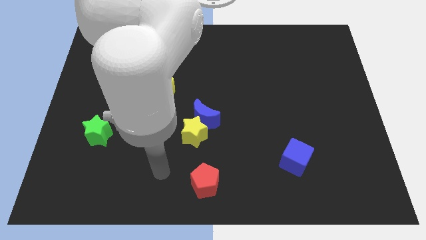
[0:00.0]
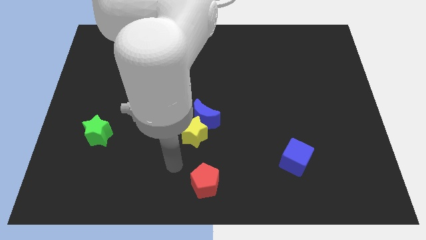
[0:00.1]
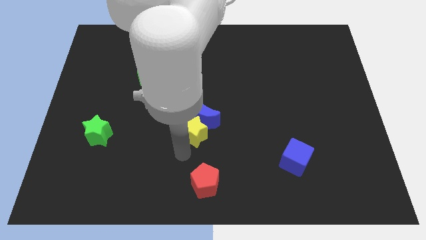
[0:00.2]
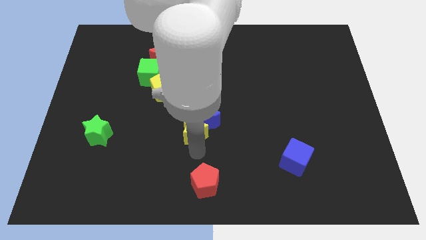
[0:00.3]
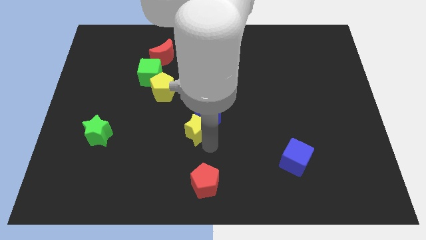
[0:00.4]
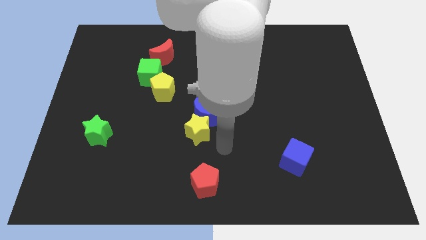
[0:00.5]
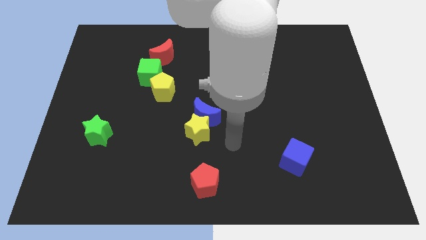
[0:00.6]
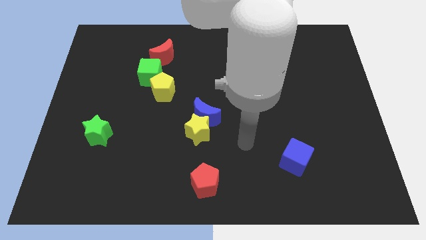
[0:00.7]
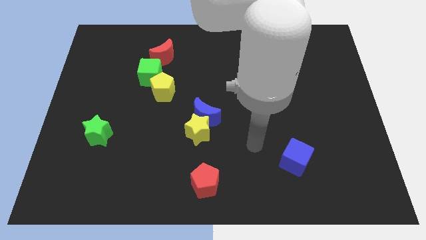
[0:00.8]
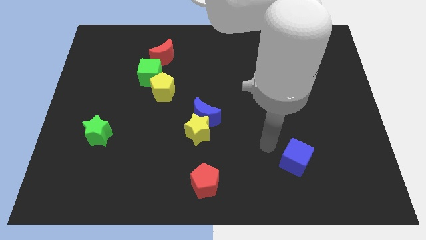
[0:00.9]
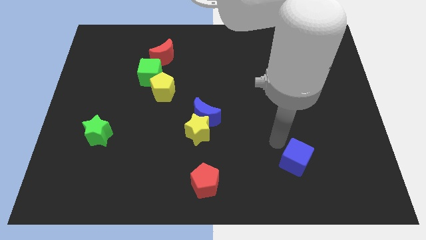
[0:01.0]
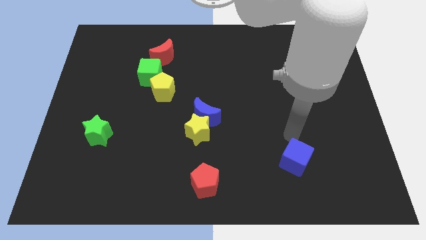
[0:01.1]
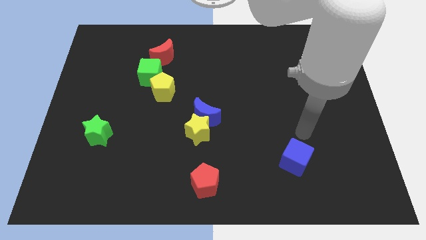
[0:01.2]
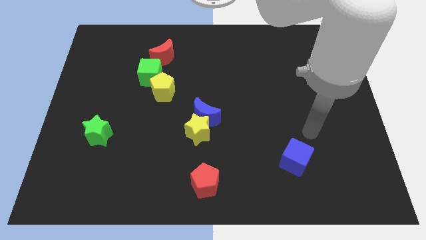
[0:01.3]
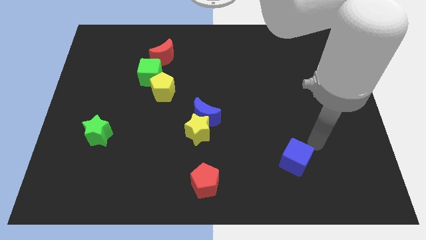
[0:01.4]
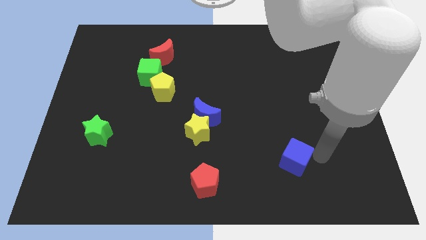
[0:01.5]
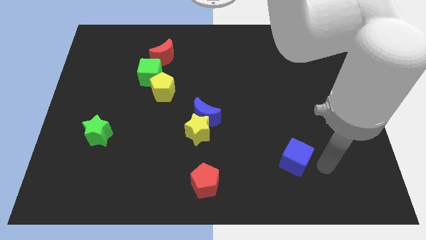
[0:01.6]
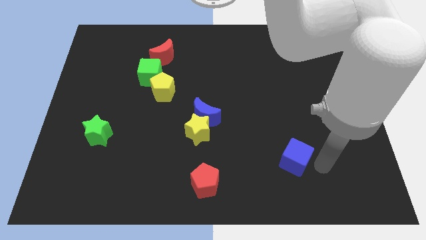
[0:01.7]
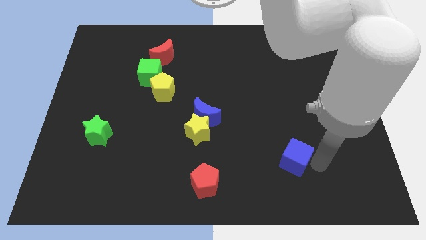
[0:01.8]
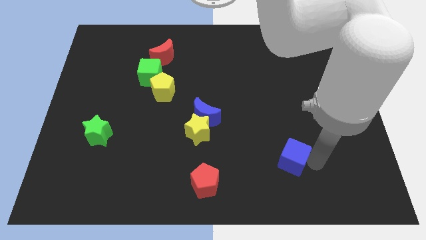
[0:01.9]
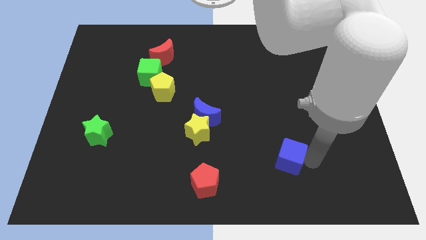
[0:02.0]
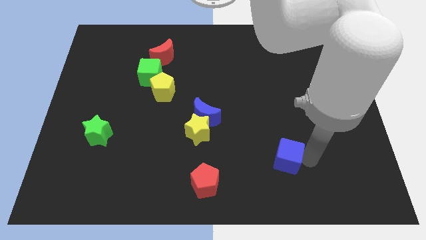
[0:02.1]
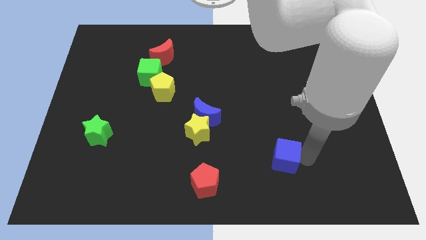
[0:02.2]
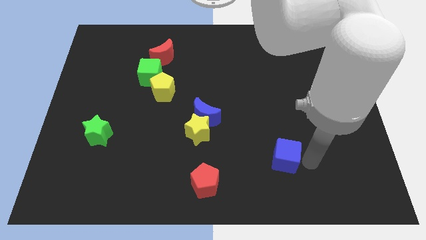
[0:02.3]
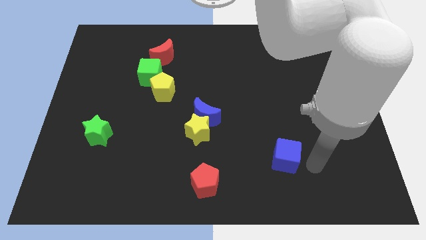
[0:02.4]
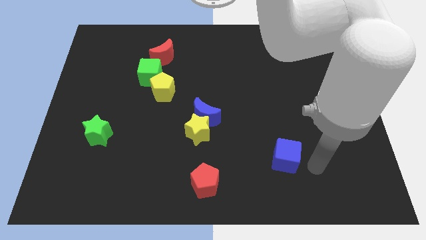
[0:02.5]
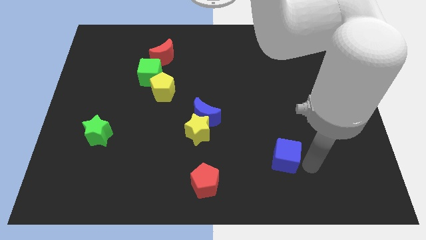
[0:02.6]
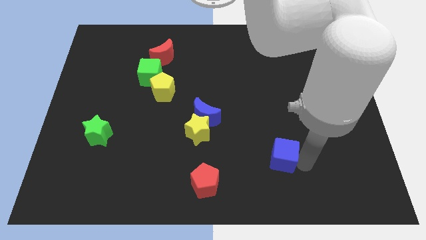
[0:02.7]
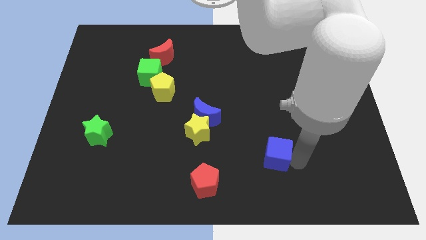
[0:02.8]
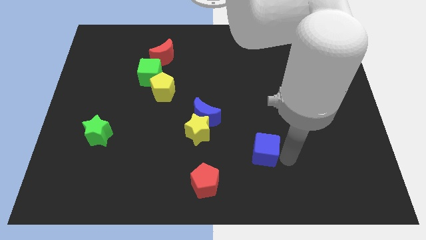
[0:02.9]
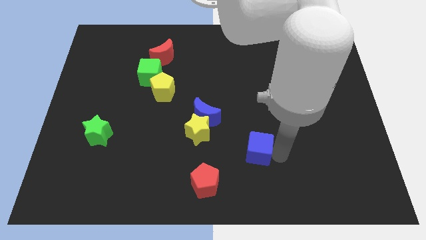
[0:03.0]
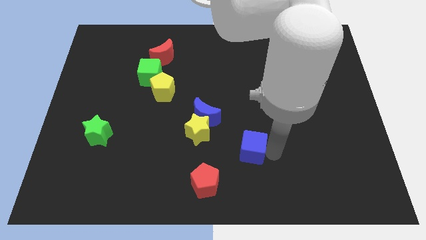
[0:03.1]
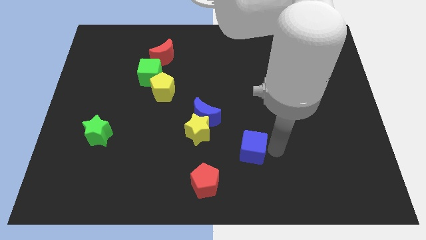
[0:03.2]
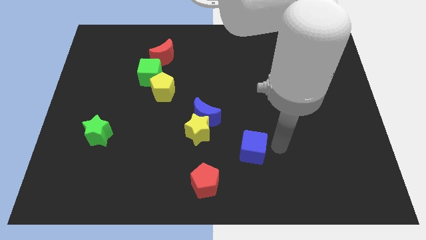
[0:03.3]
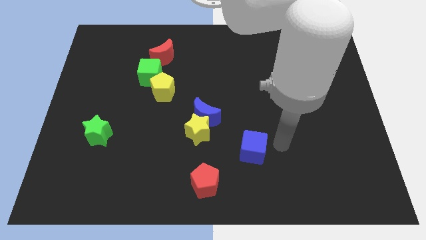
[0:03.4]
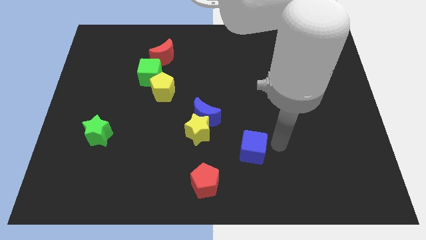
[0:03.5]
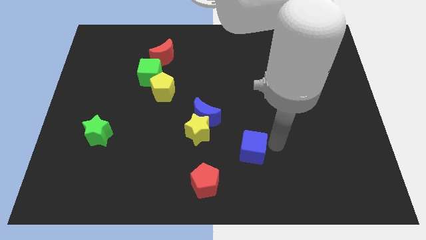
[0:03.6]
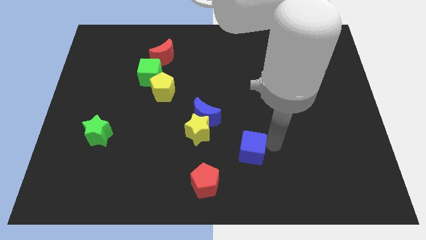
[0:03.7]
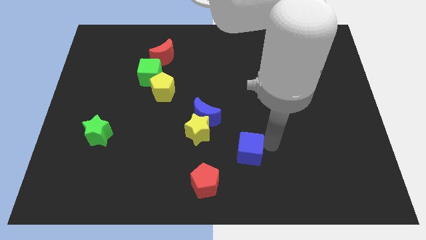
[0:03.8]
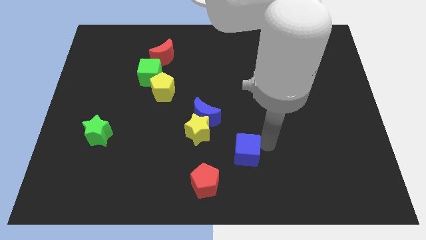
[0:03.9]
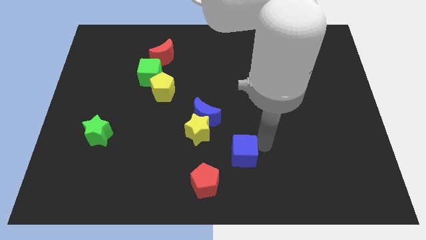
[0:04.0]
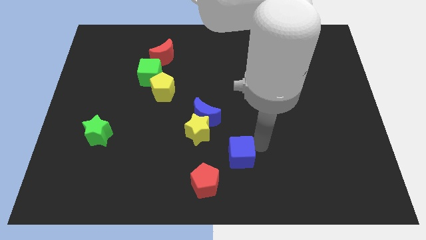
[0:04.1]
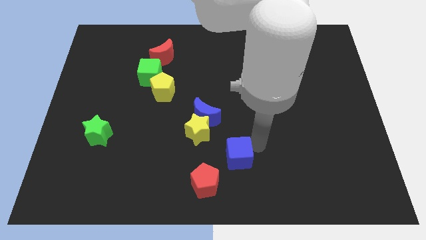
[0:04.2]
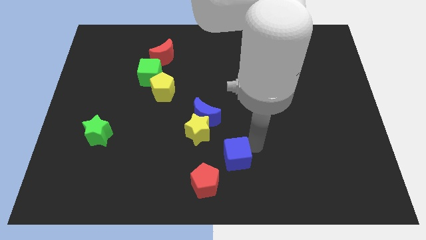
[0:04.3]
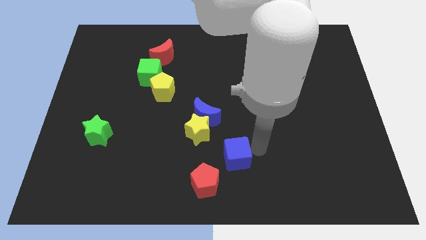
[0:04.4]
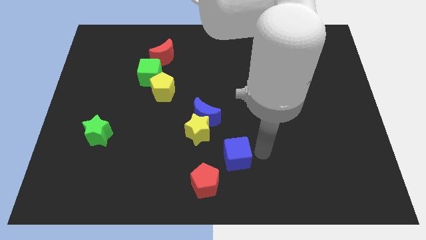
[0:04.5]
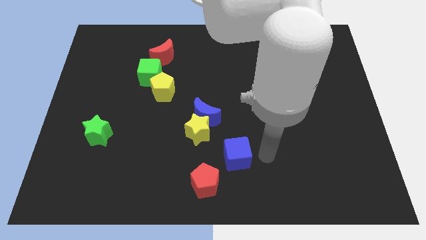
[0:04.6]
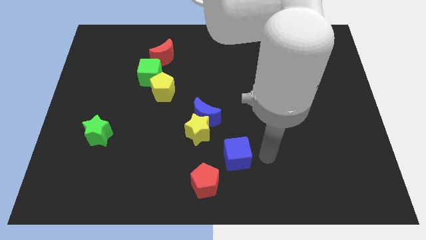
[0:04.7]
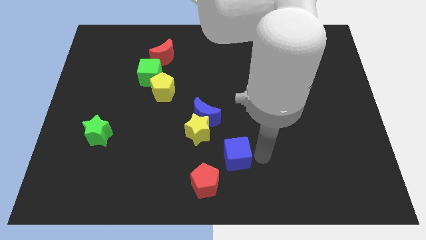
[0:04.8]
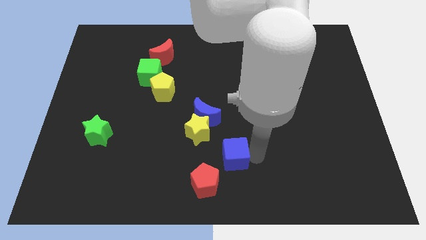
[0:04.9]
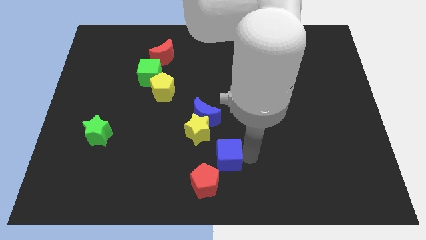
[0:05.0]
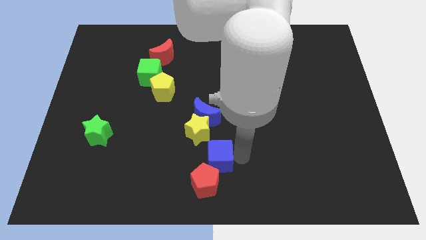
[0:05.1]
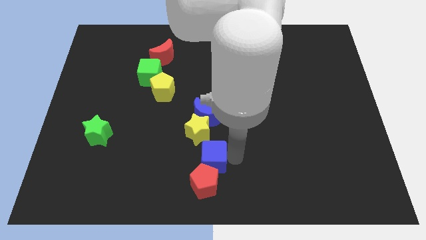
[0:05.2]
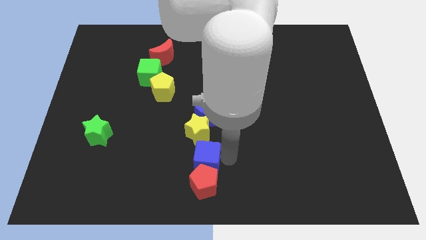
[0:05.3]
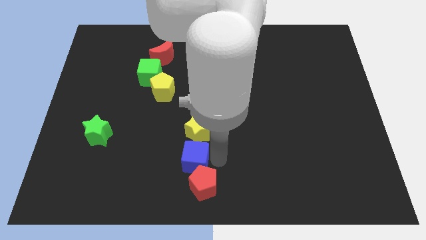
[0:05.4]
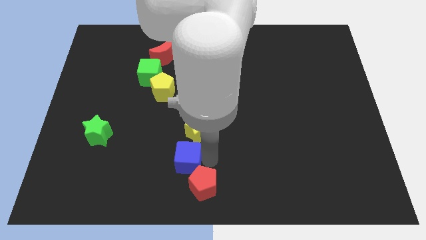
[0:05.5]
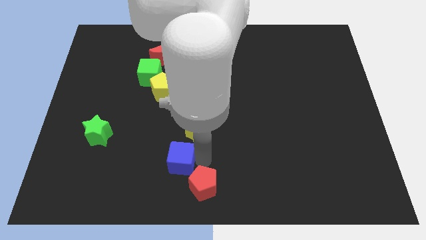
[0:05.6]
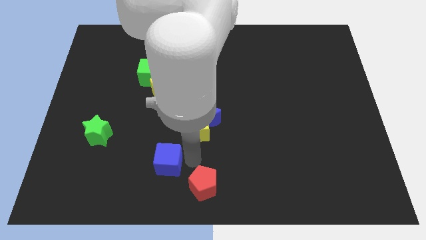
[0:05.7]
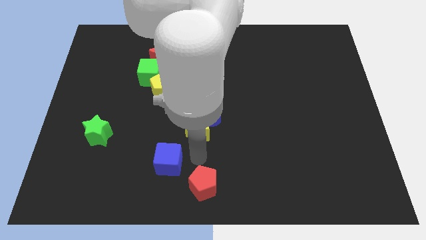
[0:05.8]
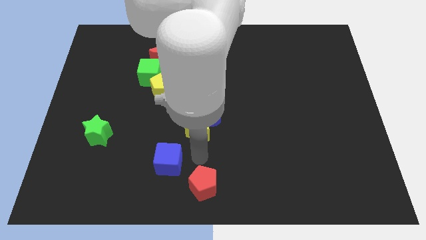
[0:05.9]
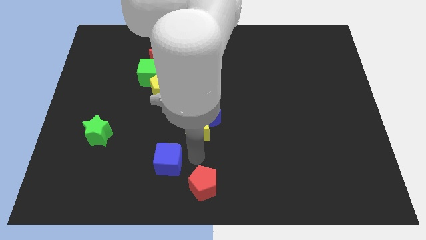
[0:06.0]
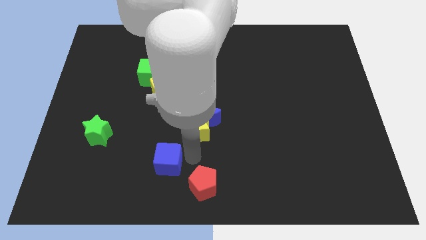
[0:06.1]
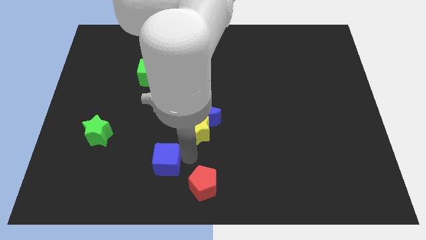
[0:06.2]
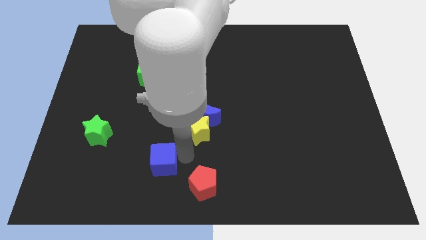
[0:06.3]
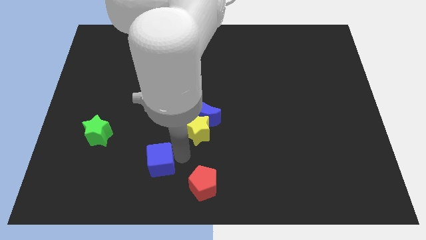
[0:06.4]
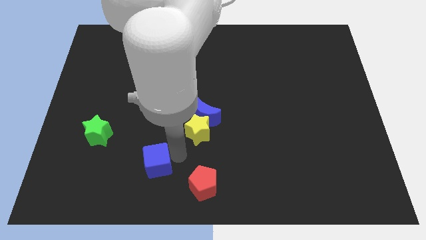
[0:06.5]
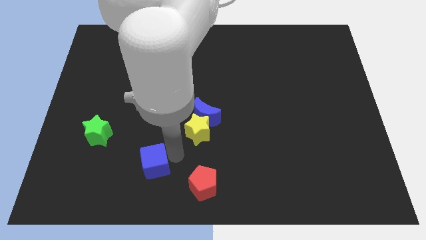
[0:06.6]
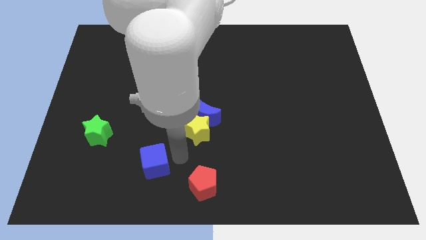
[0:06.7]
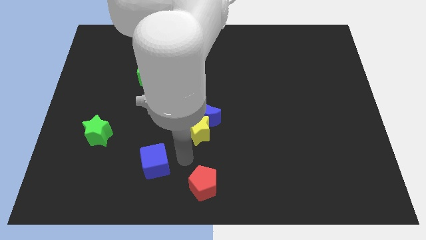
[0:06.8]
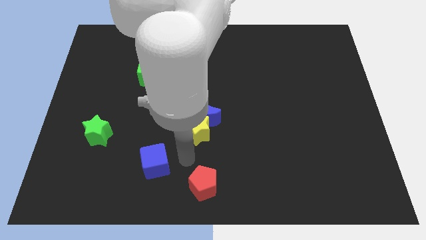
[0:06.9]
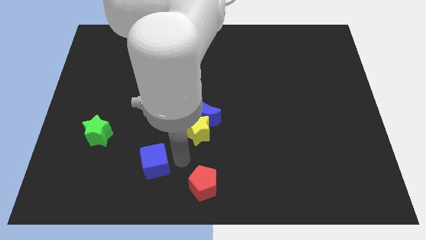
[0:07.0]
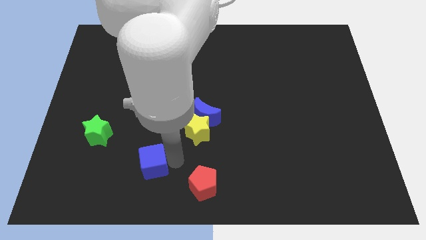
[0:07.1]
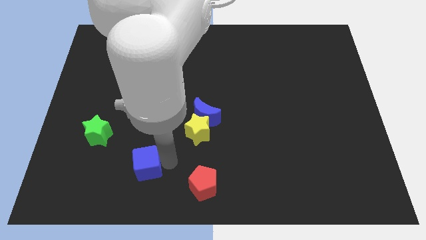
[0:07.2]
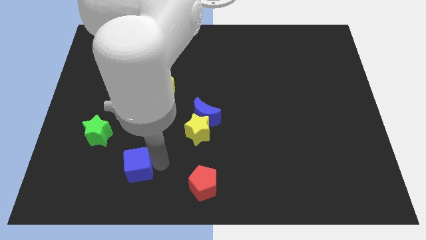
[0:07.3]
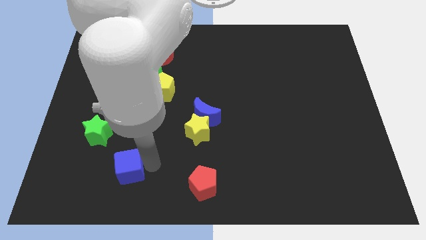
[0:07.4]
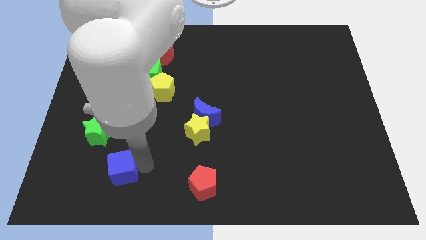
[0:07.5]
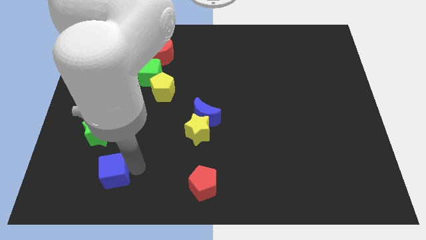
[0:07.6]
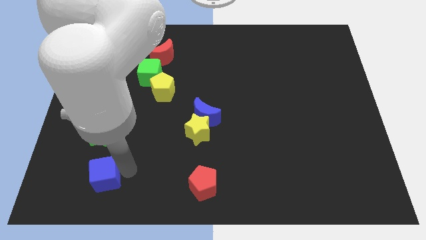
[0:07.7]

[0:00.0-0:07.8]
slide the blue cube to the bottom of the green star

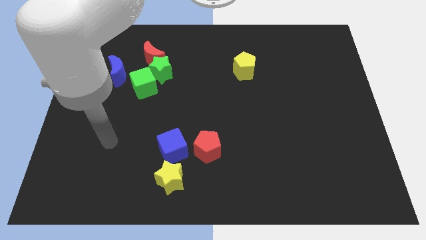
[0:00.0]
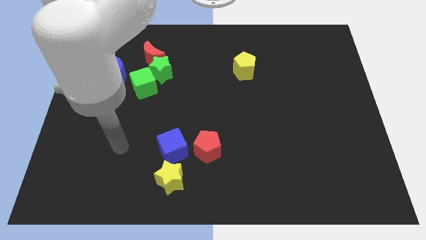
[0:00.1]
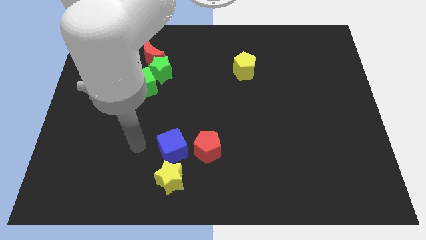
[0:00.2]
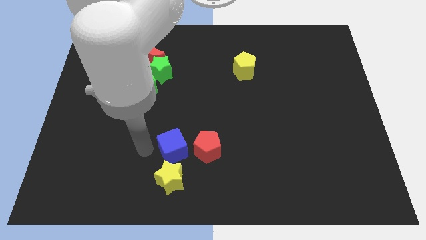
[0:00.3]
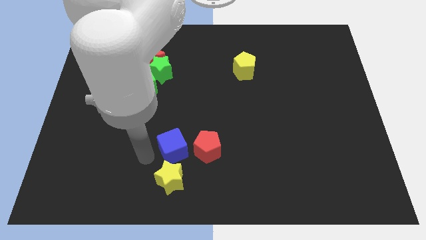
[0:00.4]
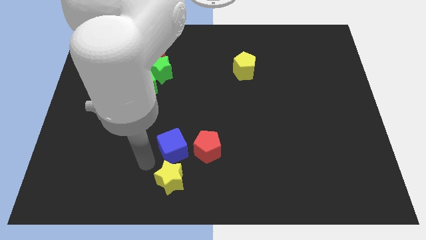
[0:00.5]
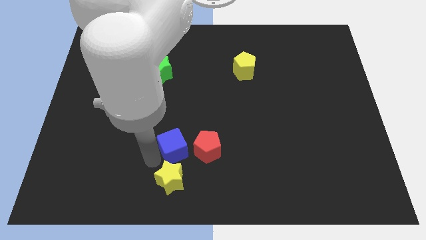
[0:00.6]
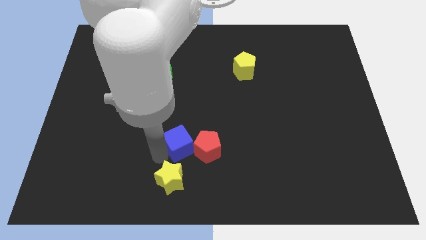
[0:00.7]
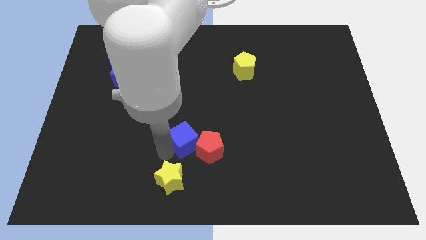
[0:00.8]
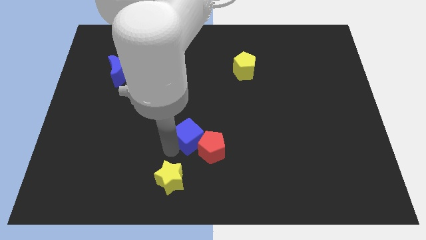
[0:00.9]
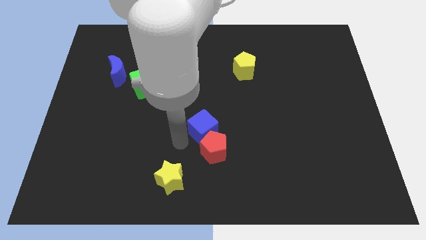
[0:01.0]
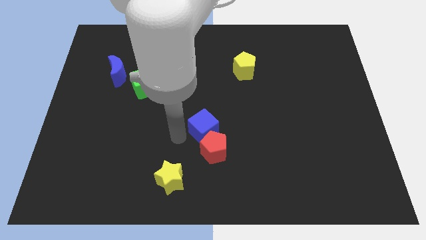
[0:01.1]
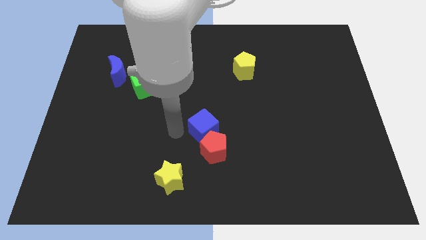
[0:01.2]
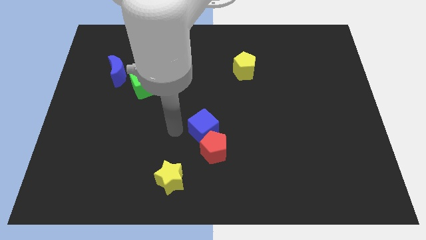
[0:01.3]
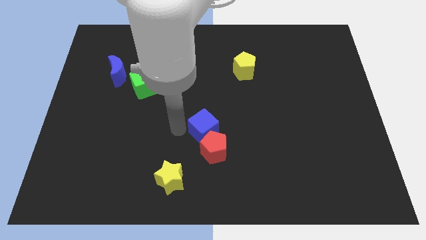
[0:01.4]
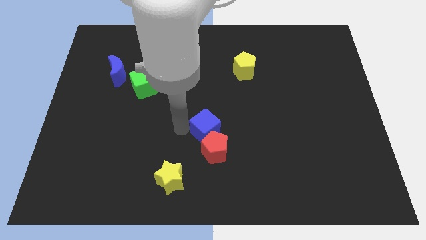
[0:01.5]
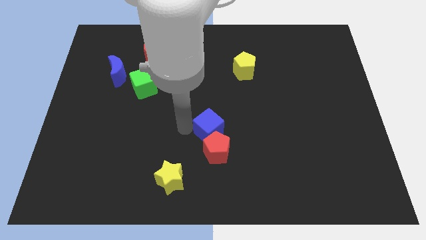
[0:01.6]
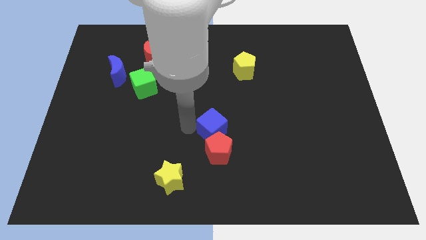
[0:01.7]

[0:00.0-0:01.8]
put the blue cube diagonally up and to the right of the red pentagon
